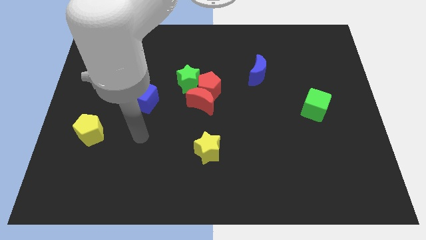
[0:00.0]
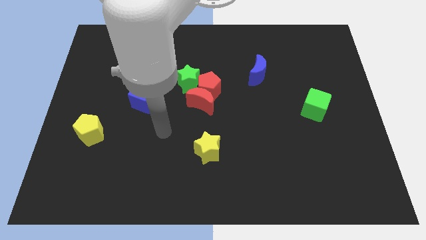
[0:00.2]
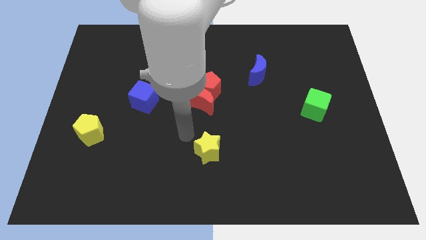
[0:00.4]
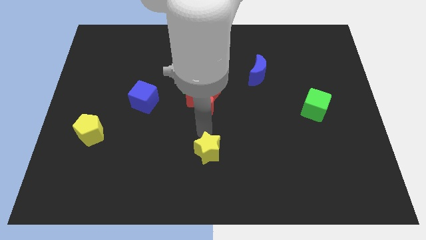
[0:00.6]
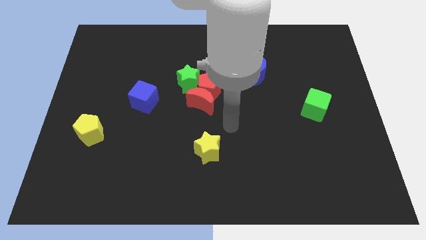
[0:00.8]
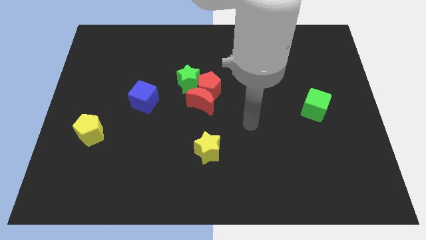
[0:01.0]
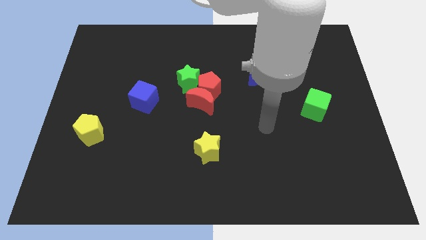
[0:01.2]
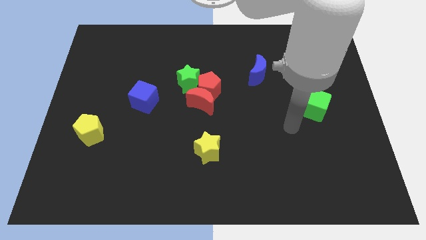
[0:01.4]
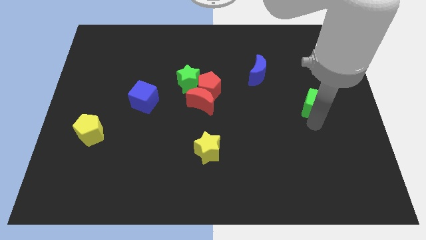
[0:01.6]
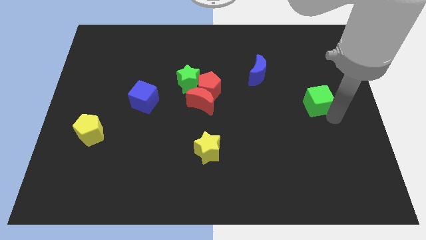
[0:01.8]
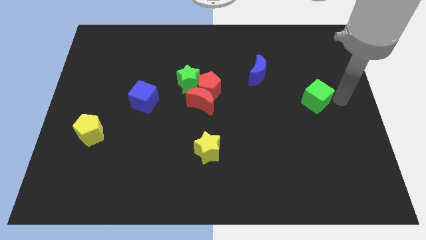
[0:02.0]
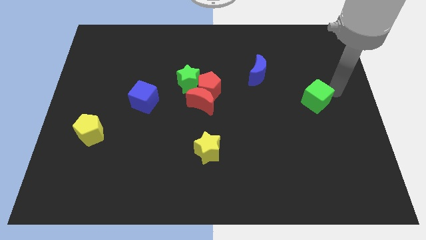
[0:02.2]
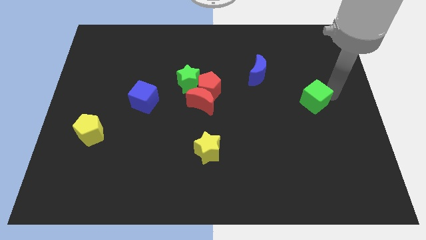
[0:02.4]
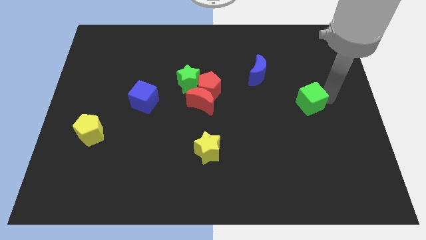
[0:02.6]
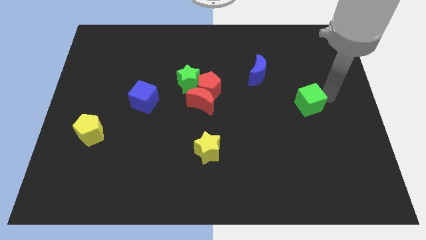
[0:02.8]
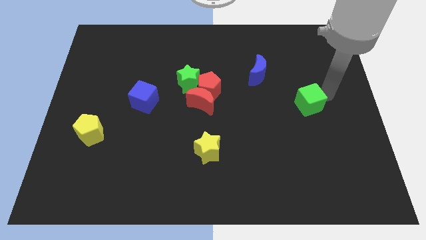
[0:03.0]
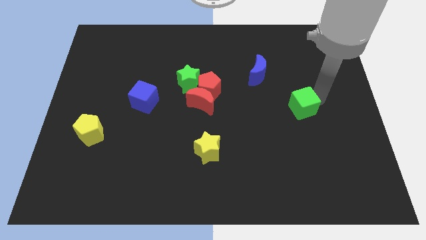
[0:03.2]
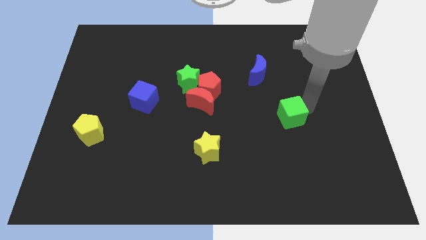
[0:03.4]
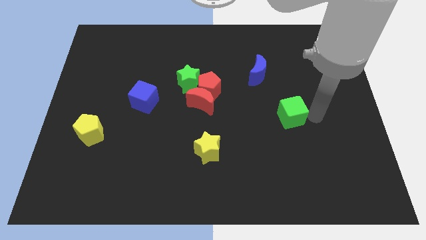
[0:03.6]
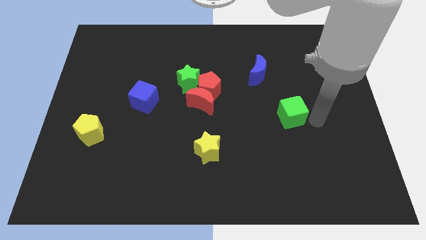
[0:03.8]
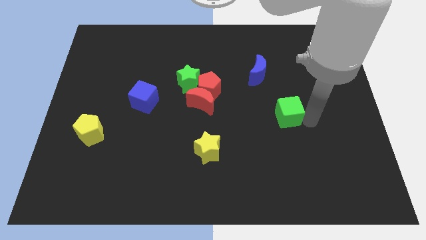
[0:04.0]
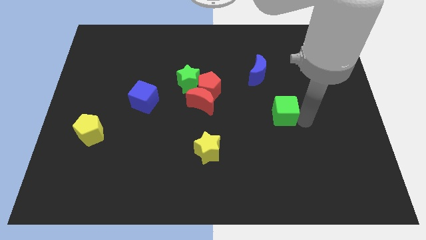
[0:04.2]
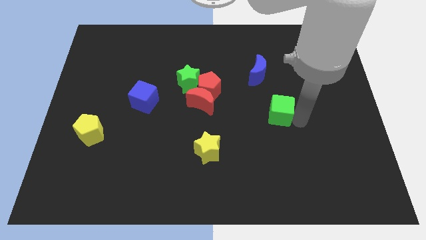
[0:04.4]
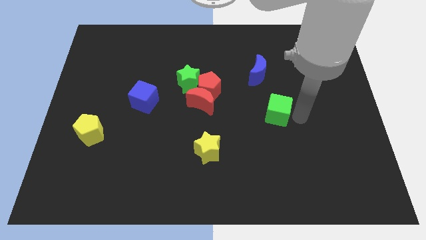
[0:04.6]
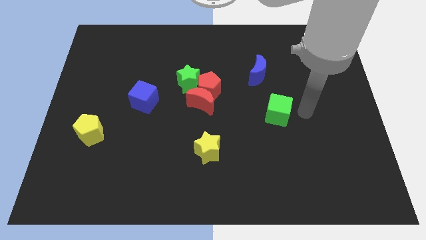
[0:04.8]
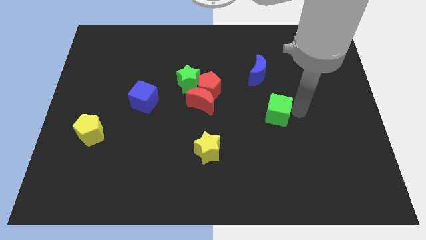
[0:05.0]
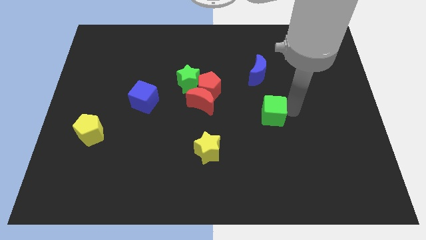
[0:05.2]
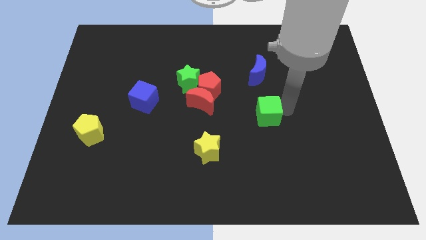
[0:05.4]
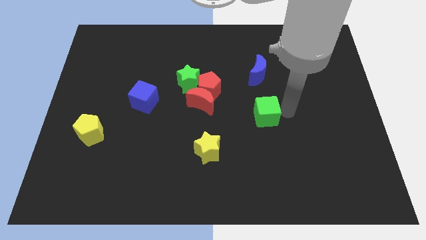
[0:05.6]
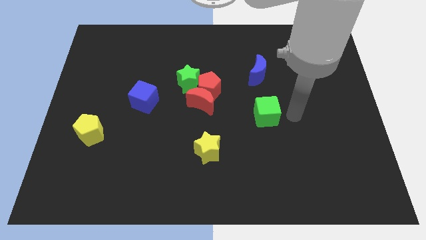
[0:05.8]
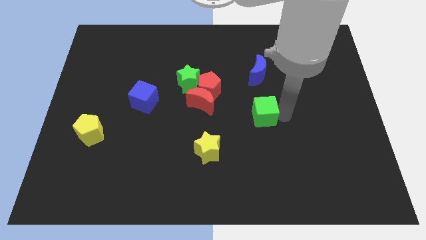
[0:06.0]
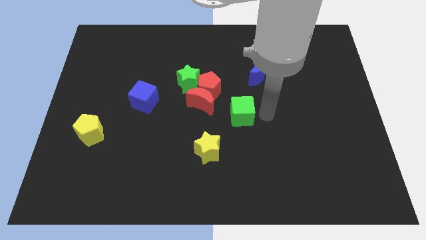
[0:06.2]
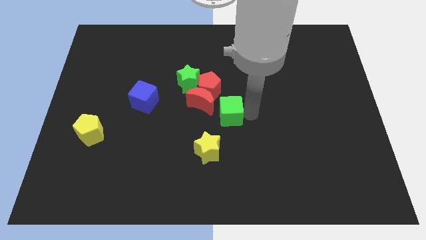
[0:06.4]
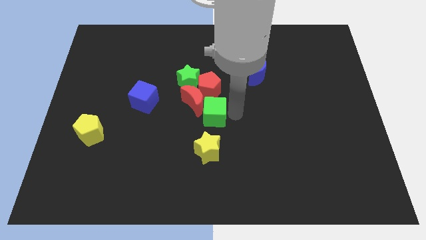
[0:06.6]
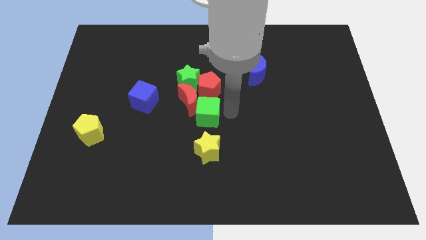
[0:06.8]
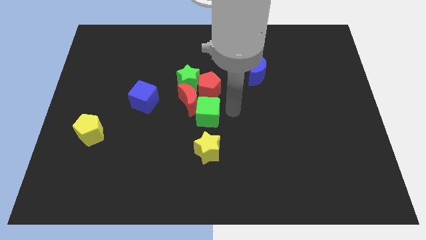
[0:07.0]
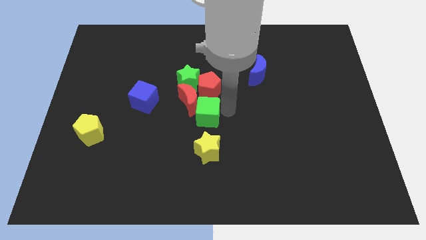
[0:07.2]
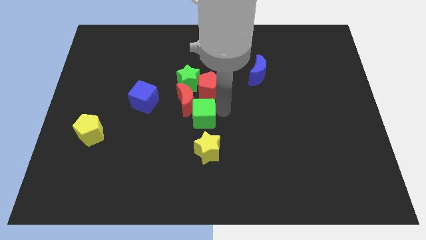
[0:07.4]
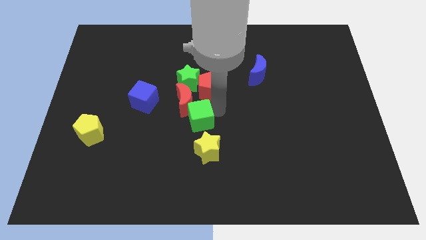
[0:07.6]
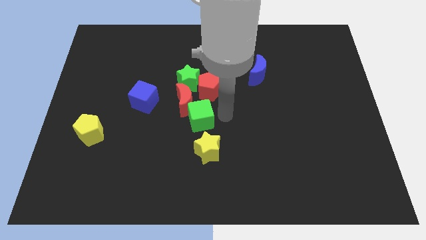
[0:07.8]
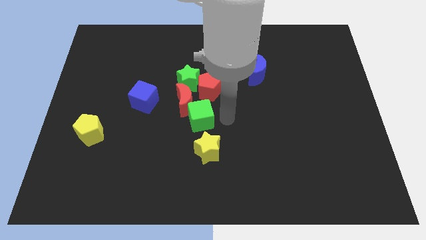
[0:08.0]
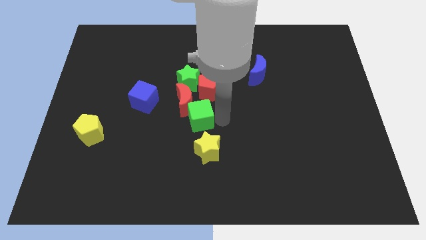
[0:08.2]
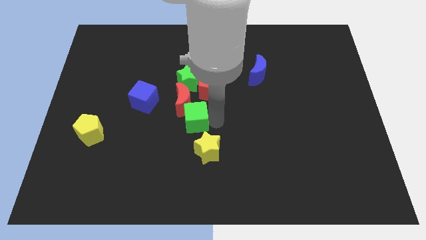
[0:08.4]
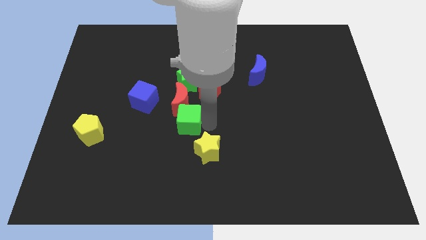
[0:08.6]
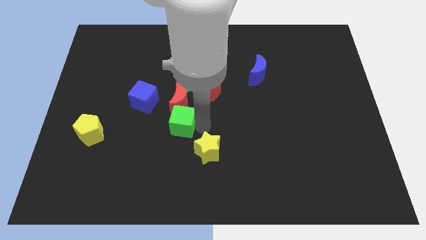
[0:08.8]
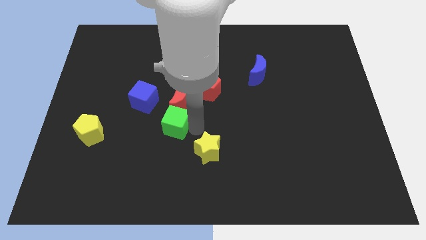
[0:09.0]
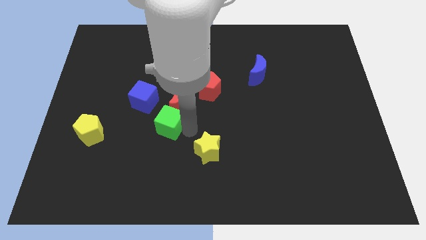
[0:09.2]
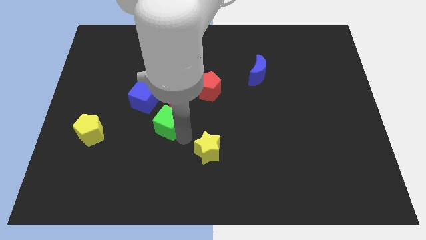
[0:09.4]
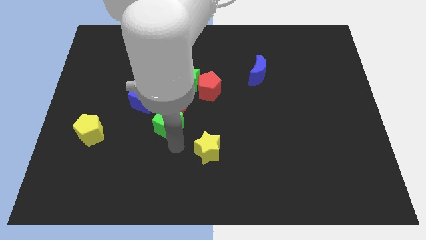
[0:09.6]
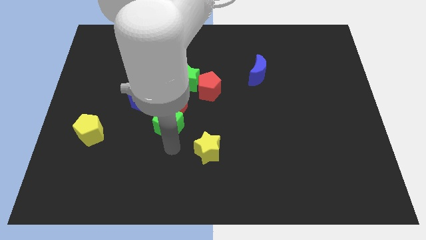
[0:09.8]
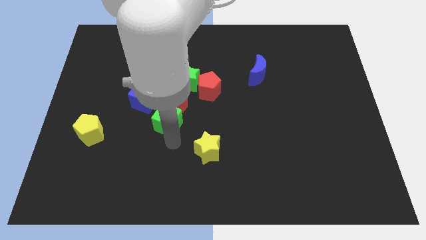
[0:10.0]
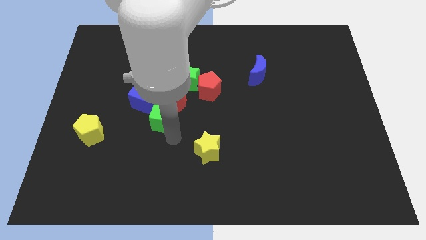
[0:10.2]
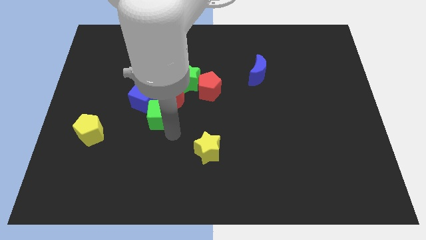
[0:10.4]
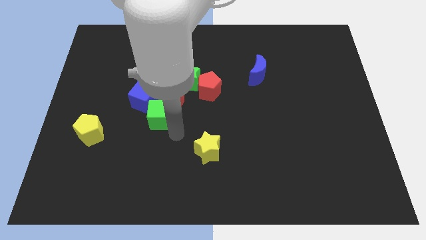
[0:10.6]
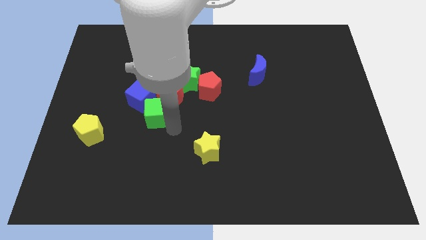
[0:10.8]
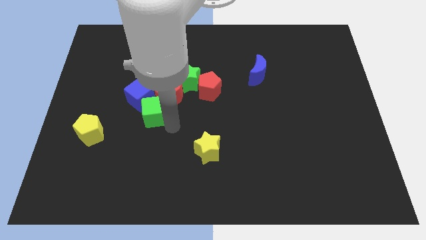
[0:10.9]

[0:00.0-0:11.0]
push the green cube next to the blue cube

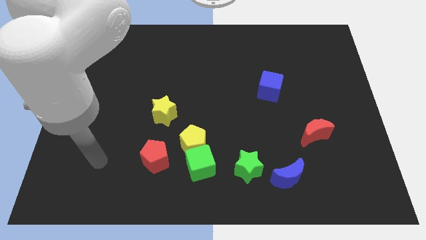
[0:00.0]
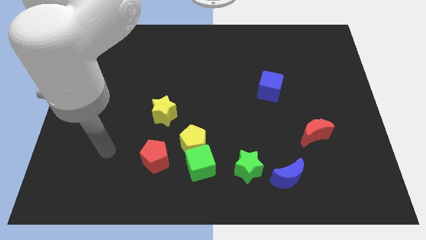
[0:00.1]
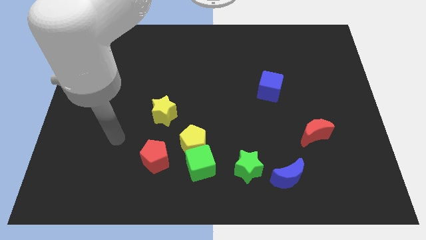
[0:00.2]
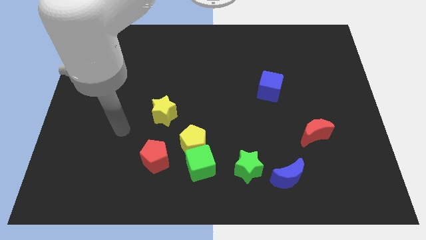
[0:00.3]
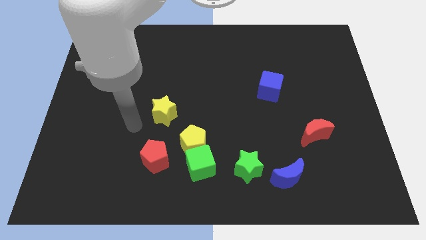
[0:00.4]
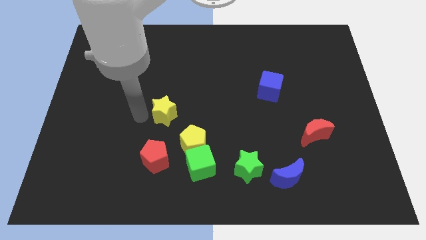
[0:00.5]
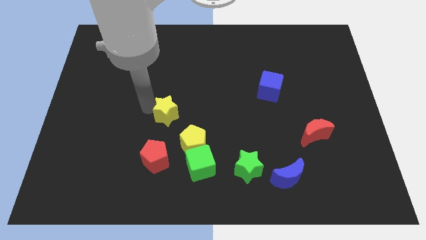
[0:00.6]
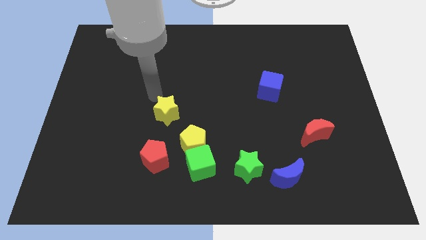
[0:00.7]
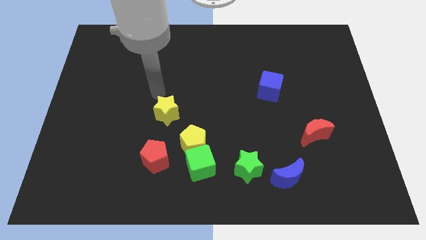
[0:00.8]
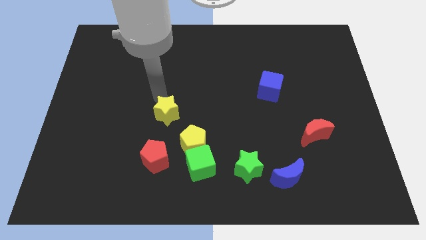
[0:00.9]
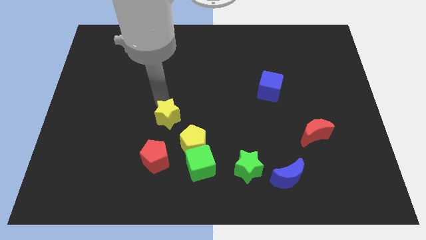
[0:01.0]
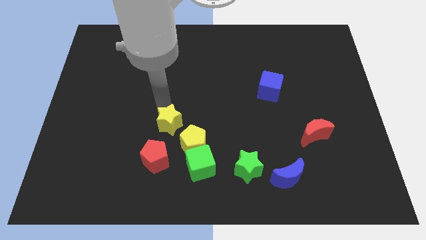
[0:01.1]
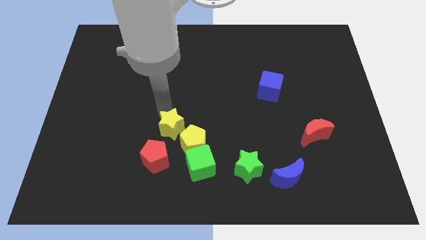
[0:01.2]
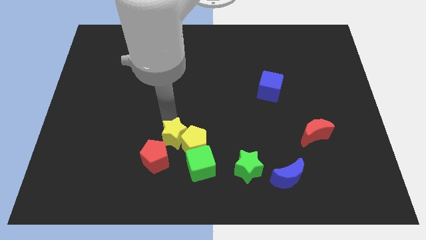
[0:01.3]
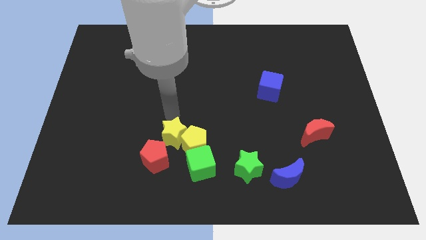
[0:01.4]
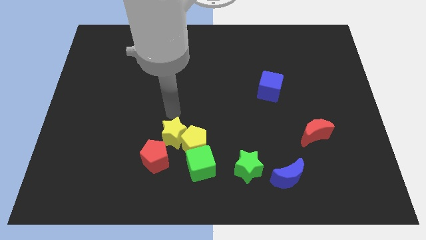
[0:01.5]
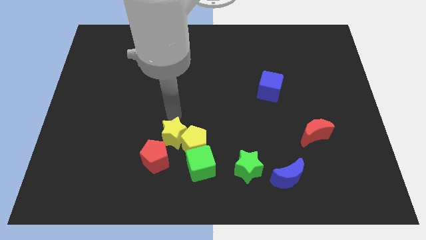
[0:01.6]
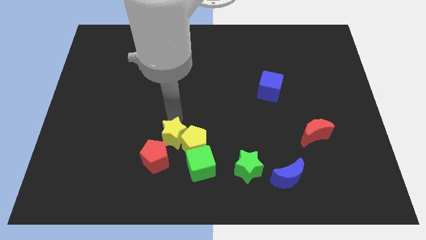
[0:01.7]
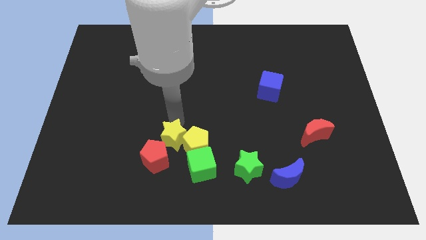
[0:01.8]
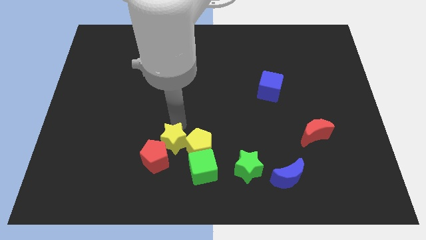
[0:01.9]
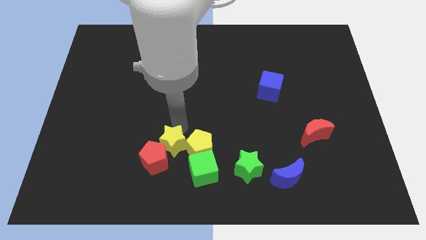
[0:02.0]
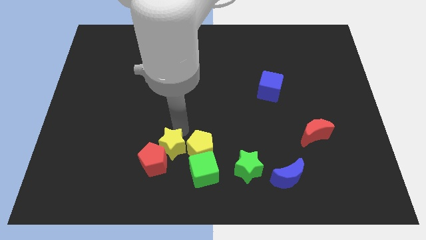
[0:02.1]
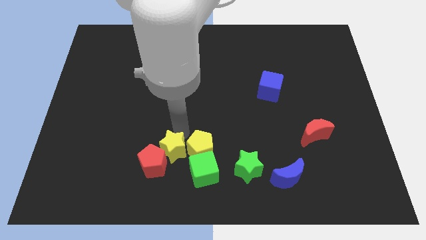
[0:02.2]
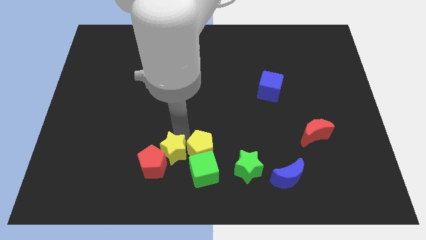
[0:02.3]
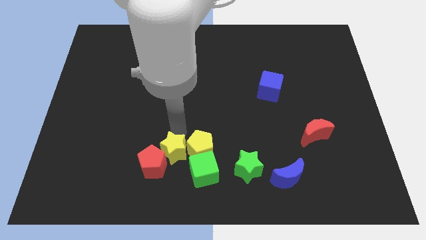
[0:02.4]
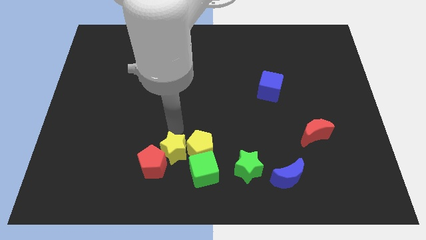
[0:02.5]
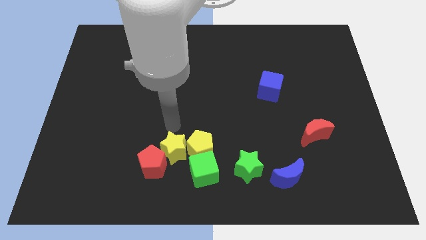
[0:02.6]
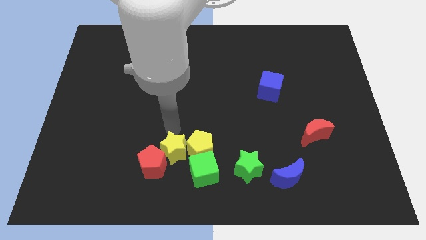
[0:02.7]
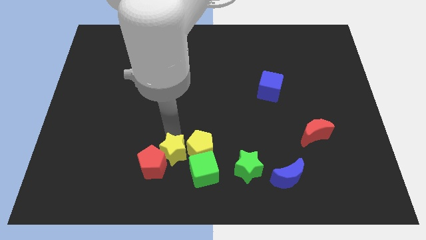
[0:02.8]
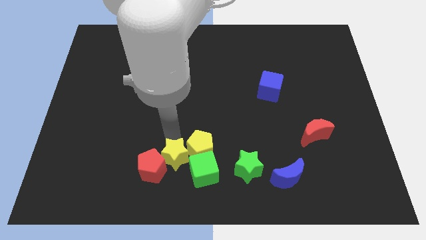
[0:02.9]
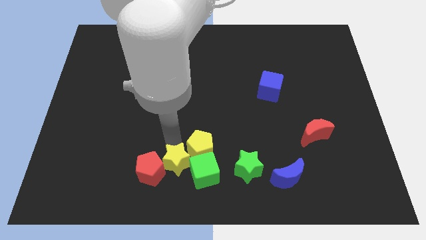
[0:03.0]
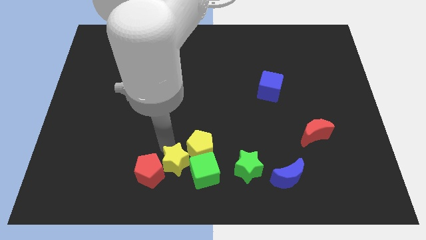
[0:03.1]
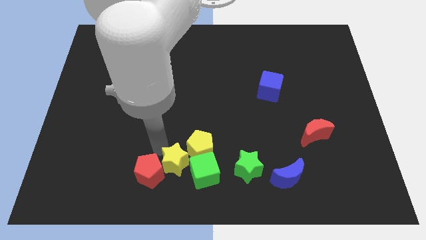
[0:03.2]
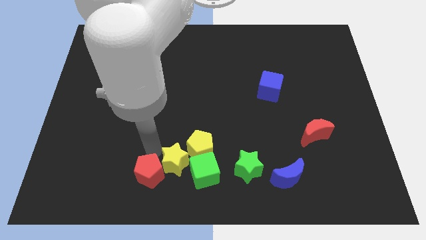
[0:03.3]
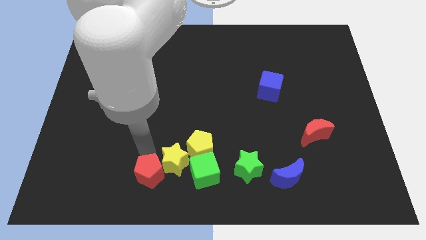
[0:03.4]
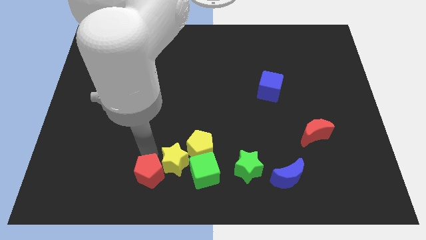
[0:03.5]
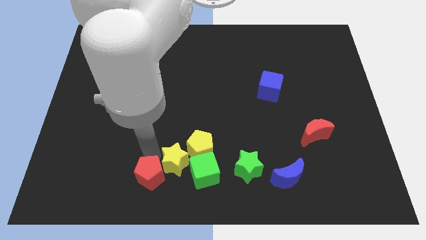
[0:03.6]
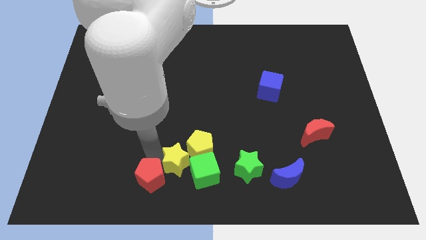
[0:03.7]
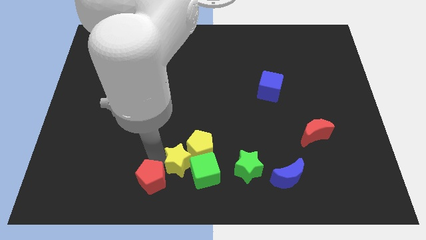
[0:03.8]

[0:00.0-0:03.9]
put the yellow star next to the green cube
